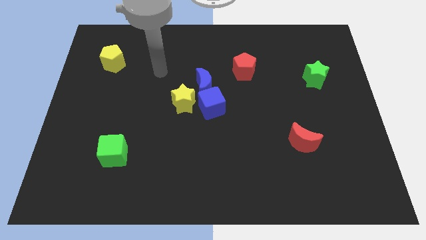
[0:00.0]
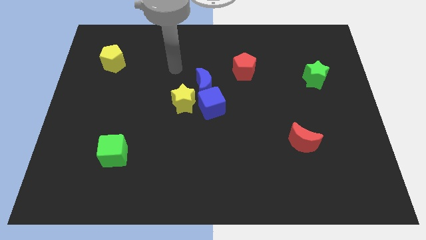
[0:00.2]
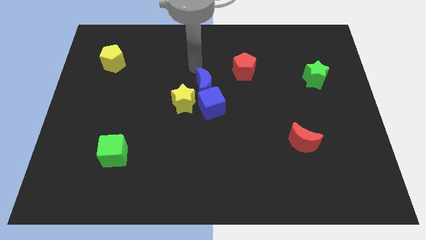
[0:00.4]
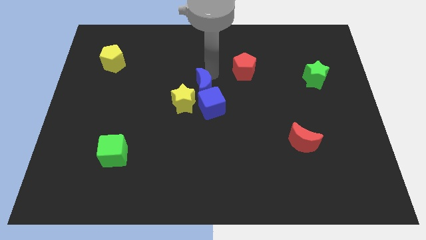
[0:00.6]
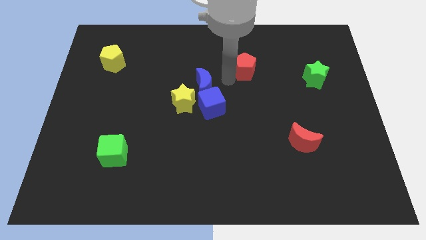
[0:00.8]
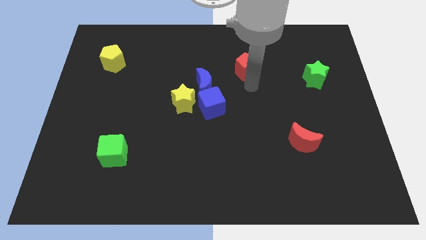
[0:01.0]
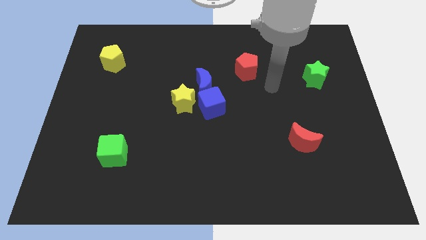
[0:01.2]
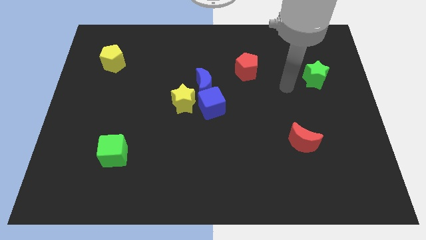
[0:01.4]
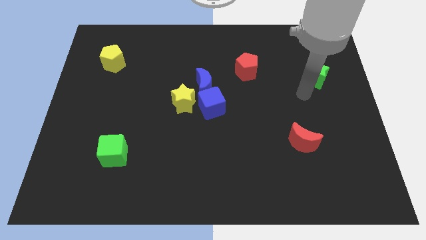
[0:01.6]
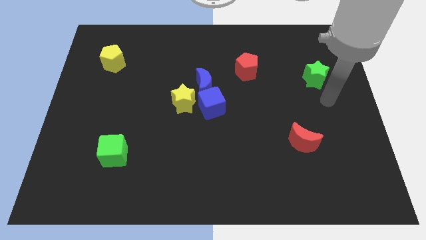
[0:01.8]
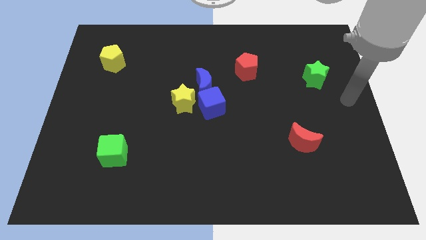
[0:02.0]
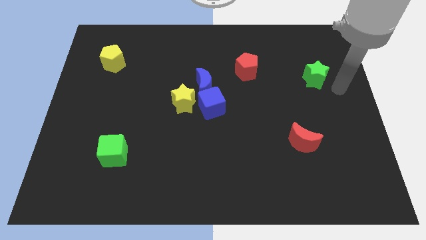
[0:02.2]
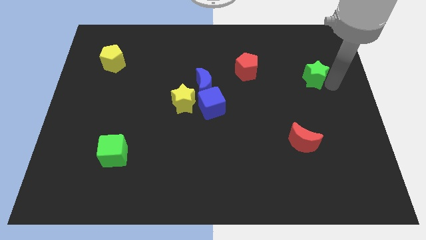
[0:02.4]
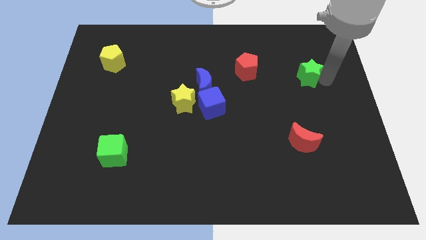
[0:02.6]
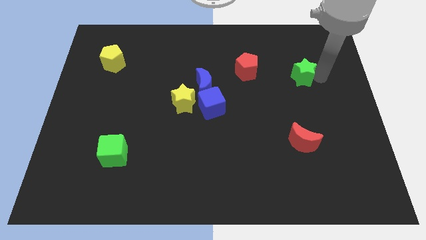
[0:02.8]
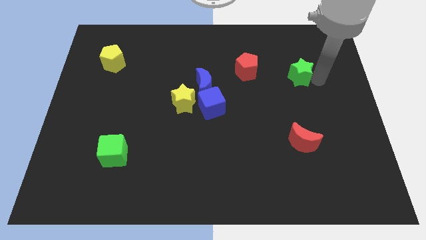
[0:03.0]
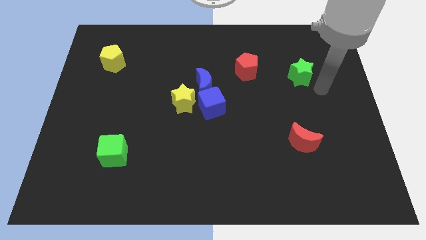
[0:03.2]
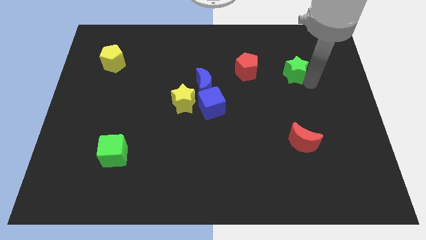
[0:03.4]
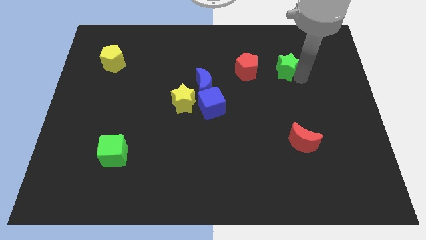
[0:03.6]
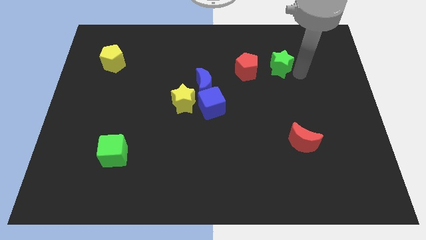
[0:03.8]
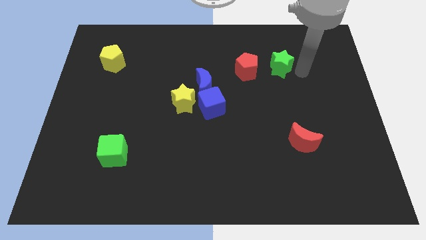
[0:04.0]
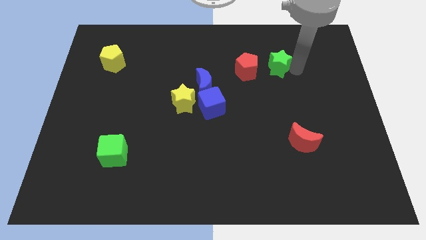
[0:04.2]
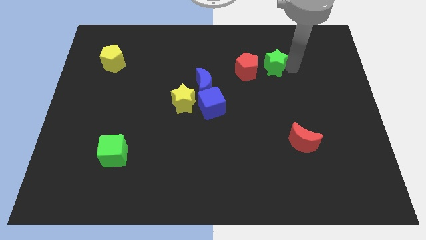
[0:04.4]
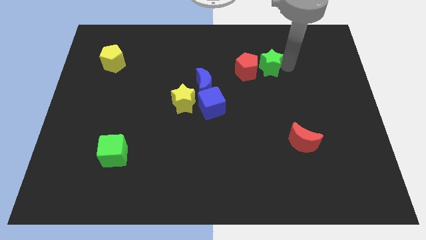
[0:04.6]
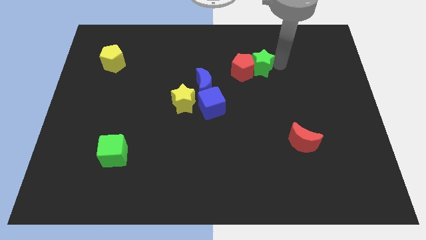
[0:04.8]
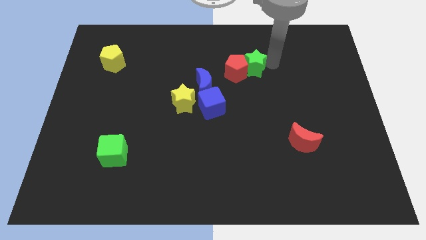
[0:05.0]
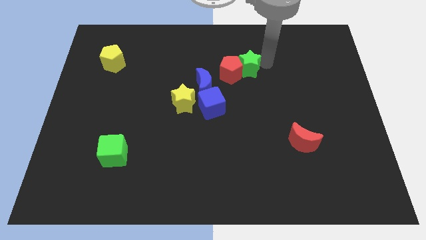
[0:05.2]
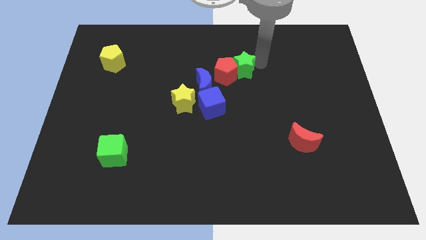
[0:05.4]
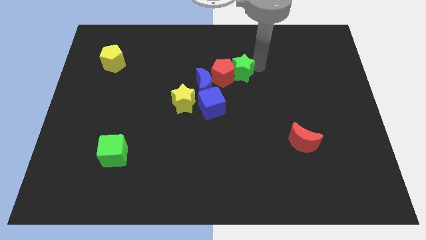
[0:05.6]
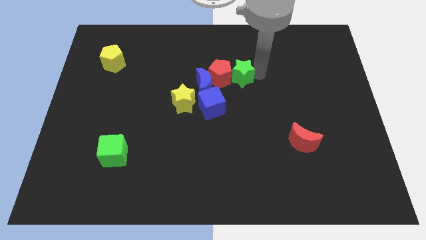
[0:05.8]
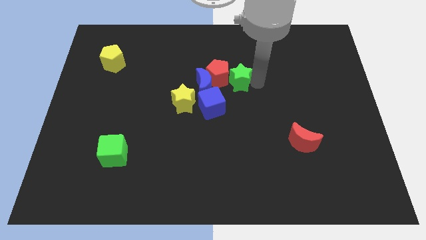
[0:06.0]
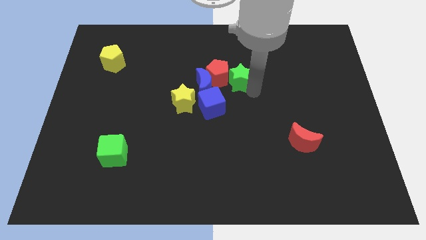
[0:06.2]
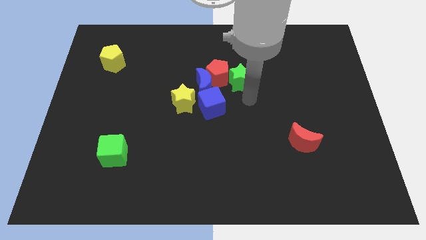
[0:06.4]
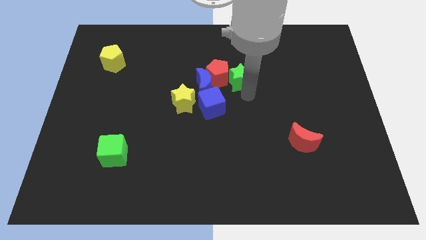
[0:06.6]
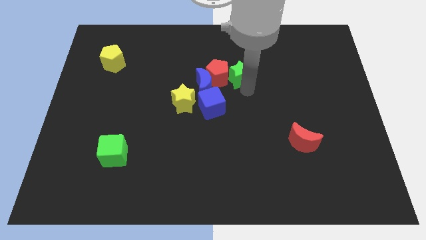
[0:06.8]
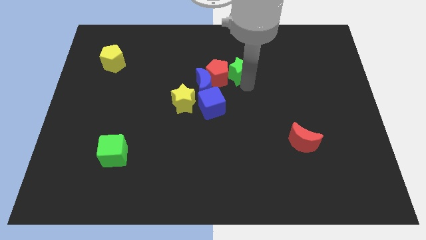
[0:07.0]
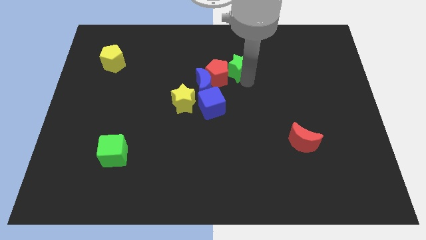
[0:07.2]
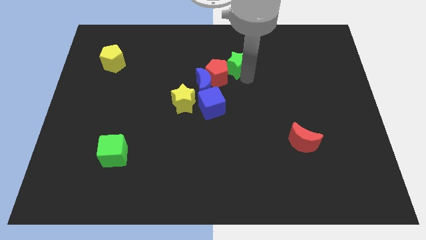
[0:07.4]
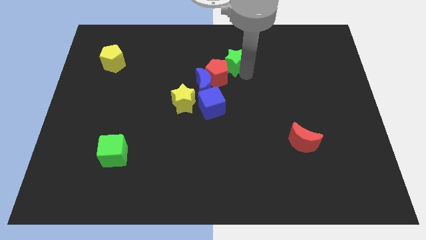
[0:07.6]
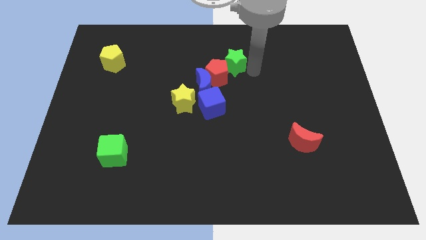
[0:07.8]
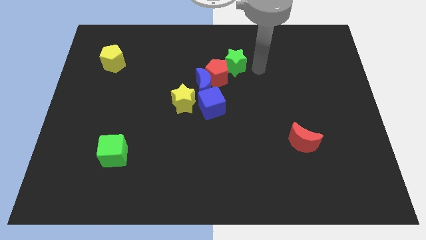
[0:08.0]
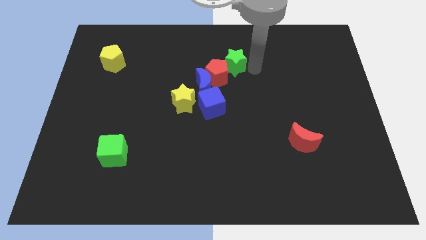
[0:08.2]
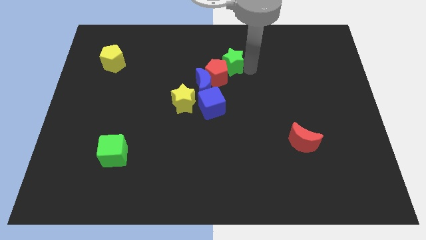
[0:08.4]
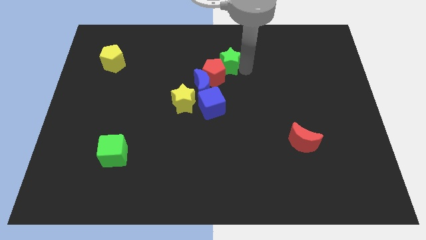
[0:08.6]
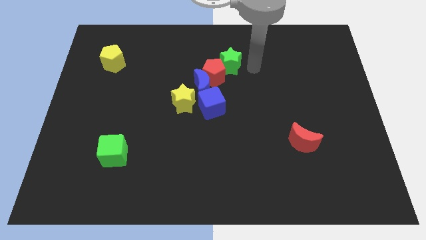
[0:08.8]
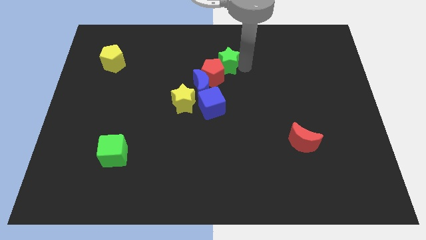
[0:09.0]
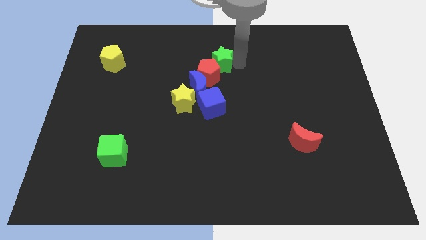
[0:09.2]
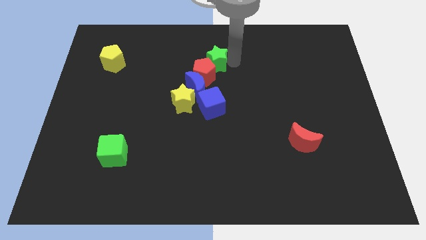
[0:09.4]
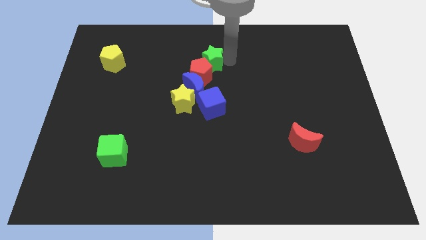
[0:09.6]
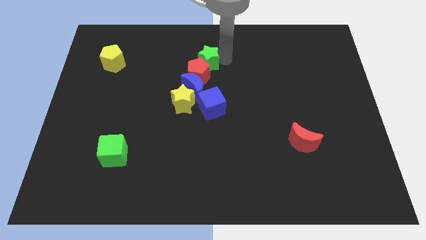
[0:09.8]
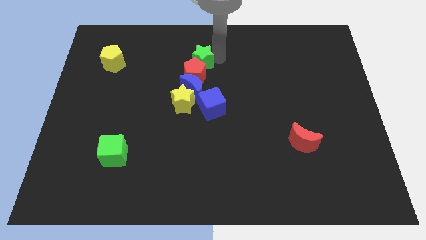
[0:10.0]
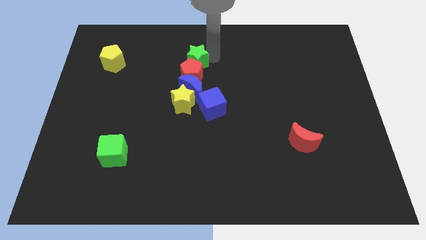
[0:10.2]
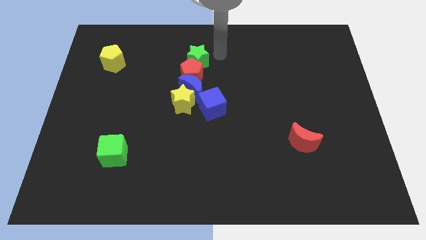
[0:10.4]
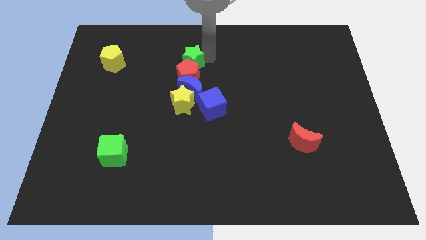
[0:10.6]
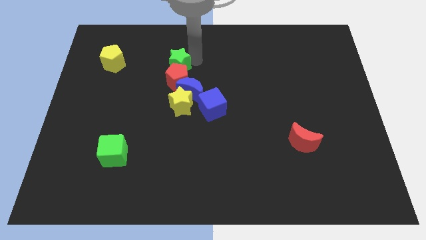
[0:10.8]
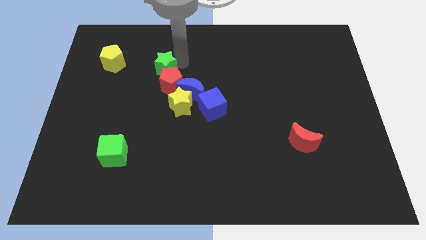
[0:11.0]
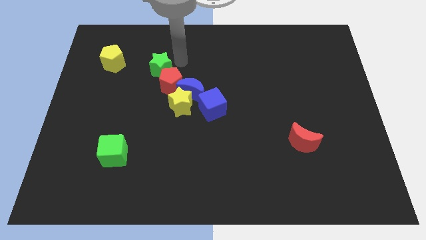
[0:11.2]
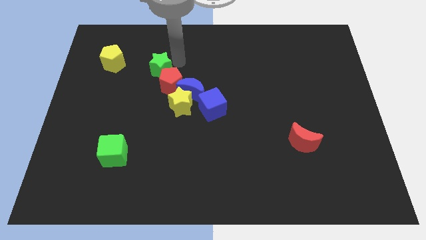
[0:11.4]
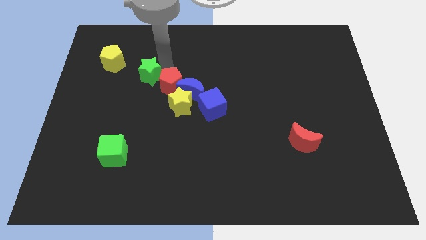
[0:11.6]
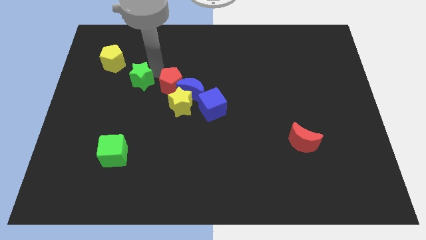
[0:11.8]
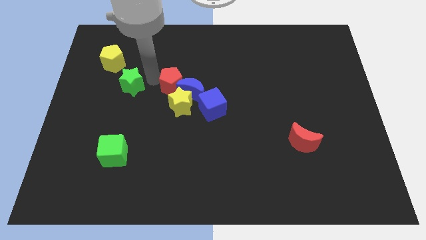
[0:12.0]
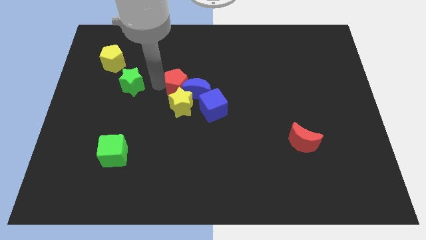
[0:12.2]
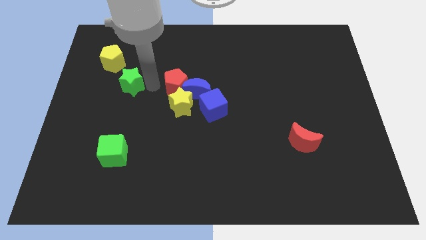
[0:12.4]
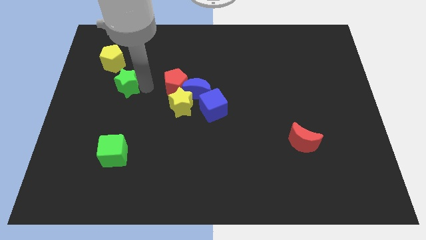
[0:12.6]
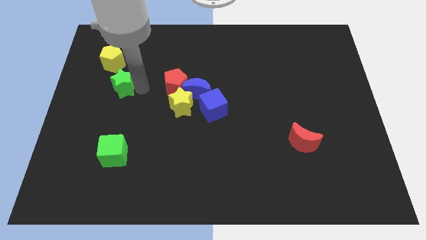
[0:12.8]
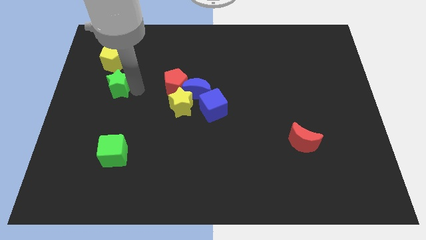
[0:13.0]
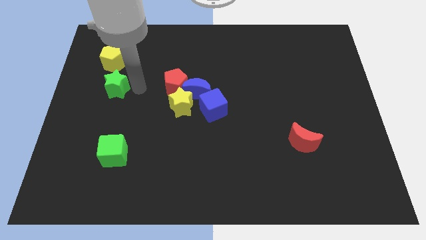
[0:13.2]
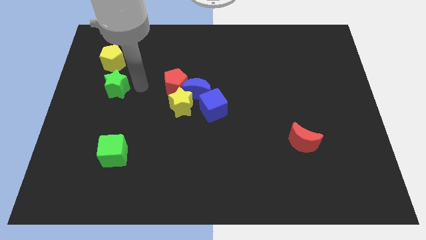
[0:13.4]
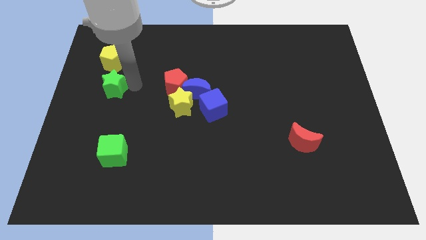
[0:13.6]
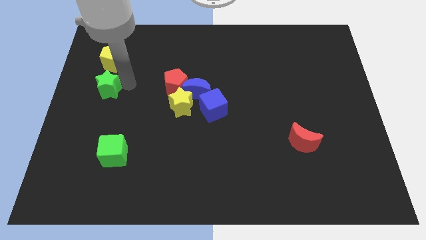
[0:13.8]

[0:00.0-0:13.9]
move the green star to the left side
